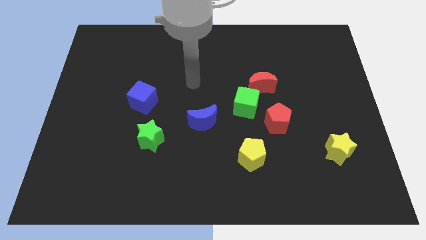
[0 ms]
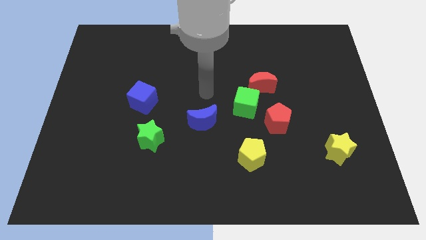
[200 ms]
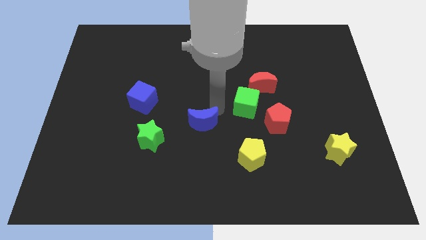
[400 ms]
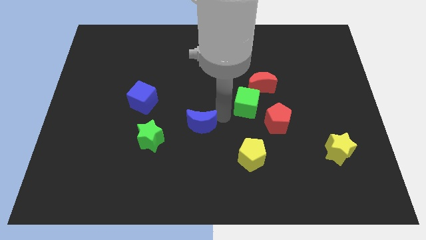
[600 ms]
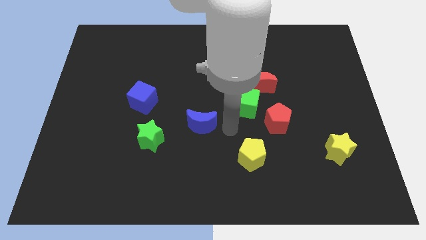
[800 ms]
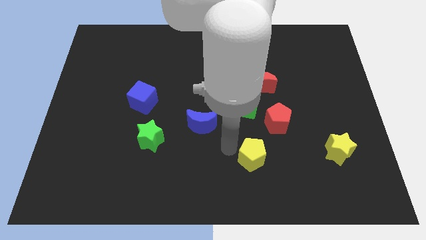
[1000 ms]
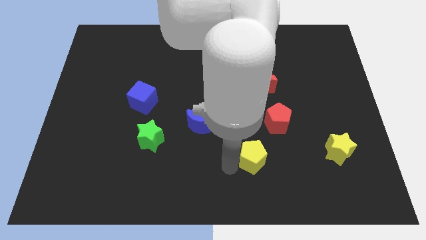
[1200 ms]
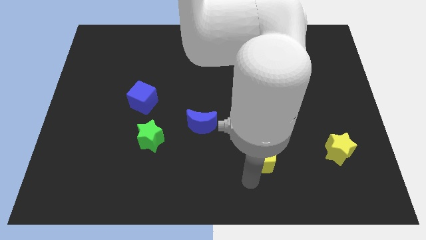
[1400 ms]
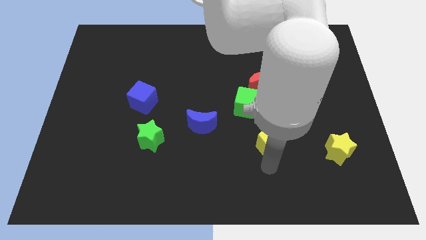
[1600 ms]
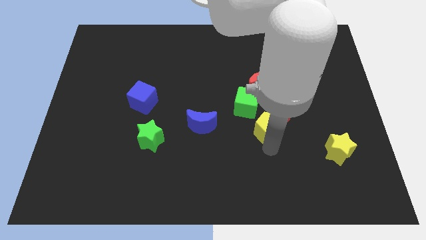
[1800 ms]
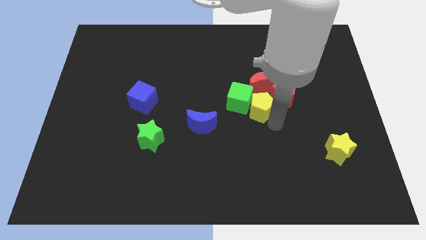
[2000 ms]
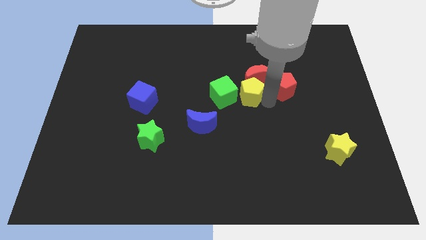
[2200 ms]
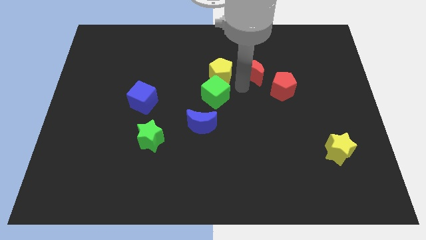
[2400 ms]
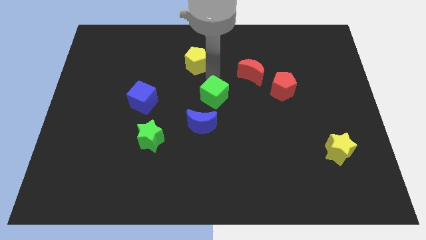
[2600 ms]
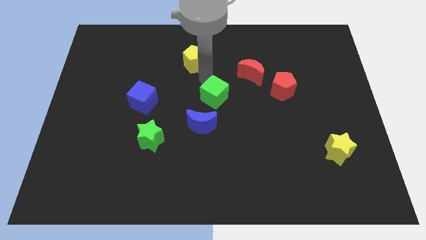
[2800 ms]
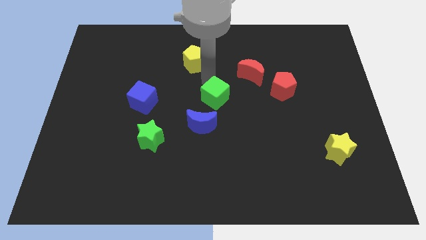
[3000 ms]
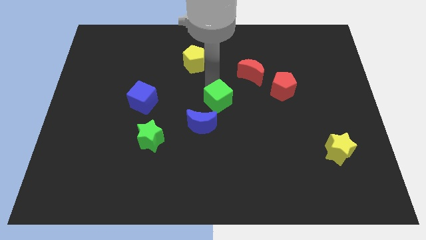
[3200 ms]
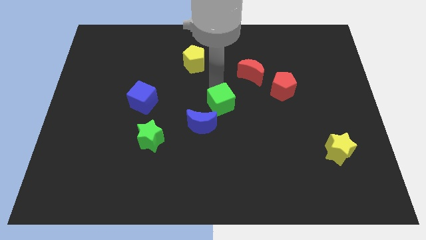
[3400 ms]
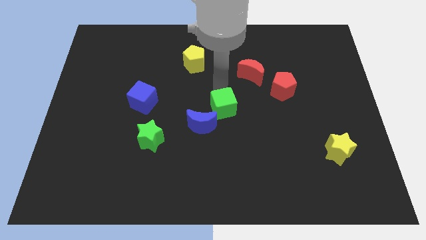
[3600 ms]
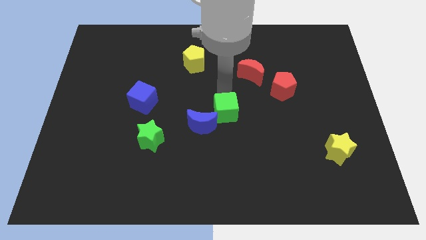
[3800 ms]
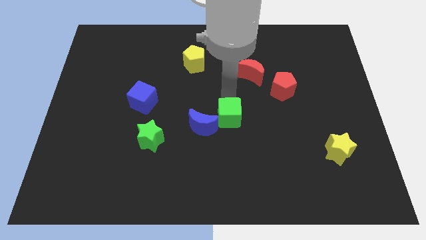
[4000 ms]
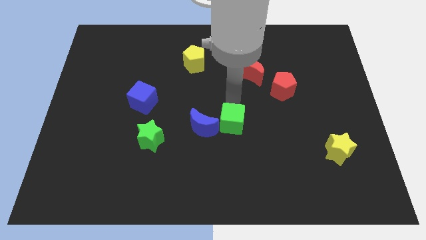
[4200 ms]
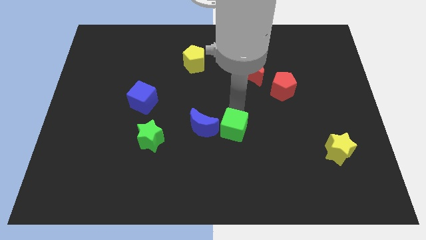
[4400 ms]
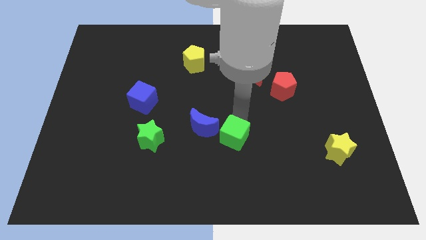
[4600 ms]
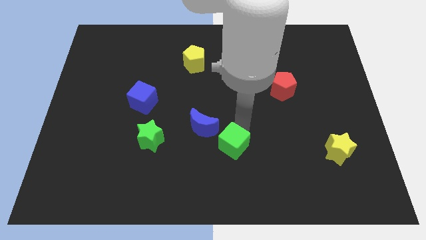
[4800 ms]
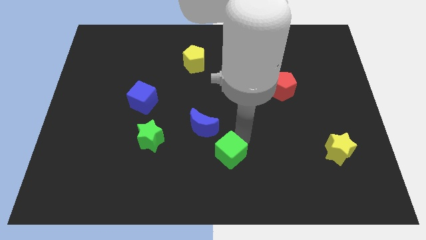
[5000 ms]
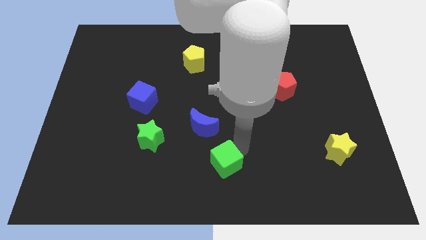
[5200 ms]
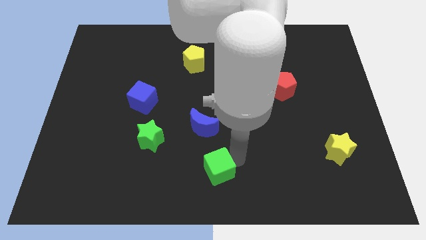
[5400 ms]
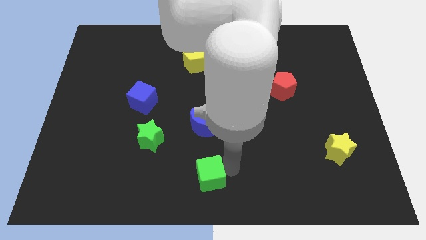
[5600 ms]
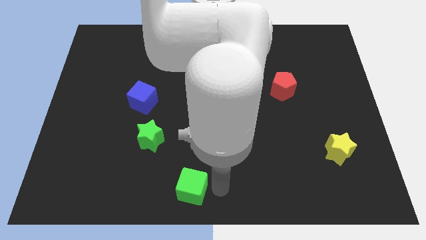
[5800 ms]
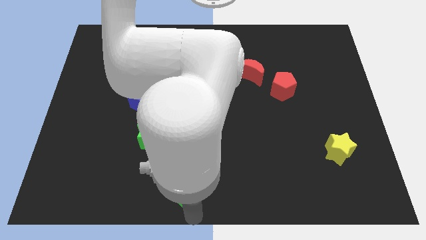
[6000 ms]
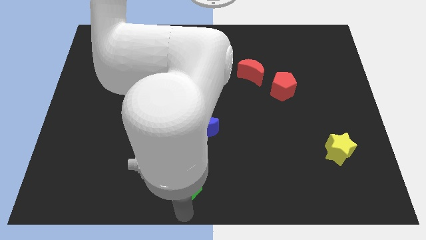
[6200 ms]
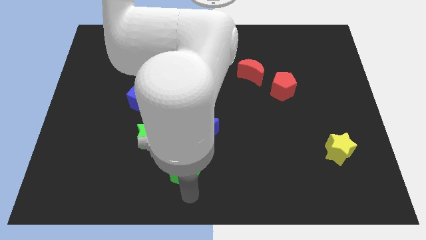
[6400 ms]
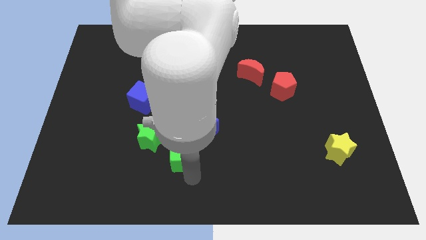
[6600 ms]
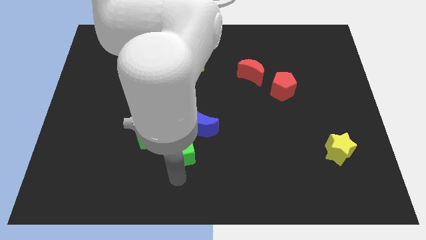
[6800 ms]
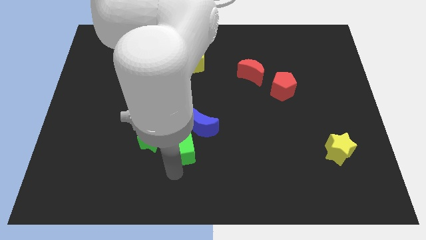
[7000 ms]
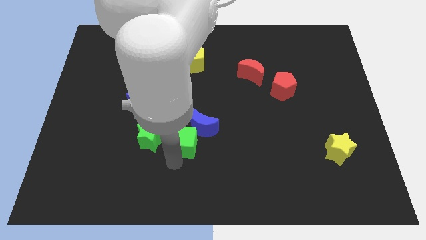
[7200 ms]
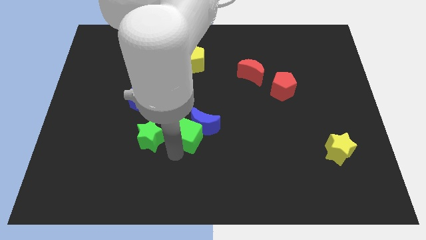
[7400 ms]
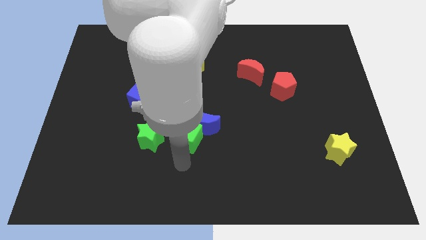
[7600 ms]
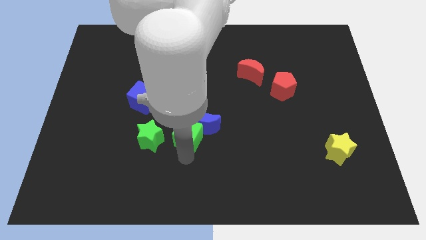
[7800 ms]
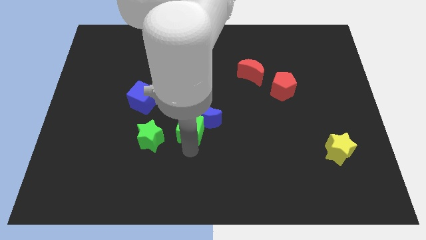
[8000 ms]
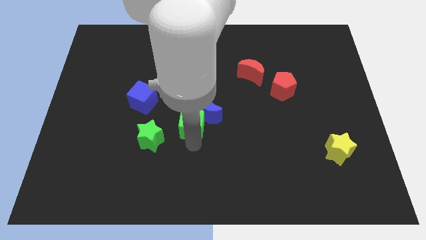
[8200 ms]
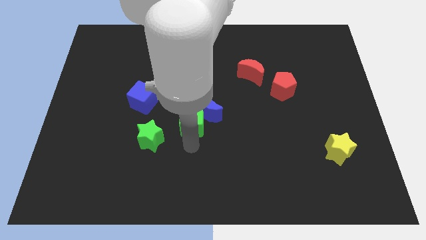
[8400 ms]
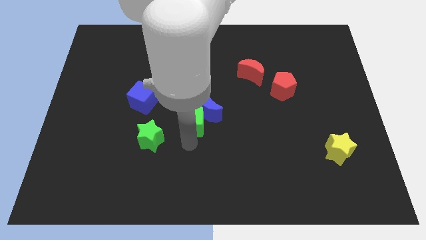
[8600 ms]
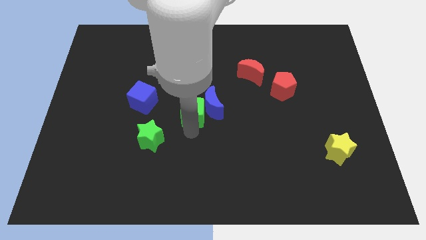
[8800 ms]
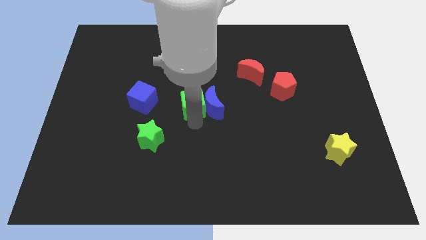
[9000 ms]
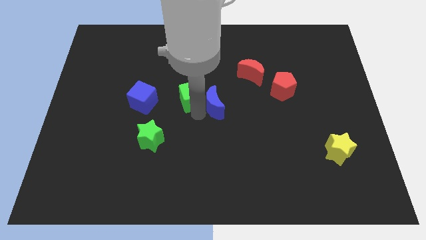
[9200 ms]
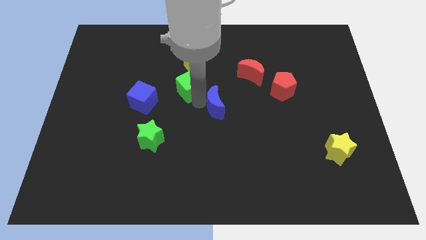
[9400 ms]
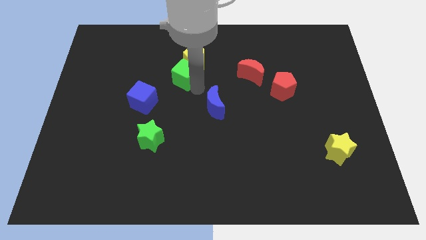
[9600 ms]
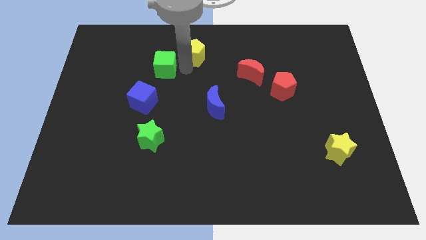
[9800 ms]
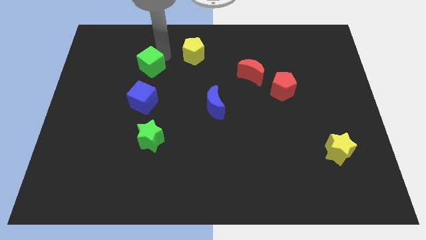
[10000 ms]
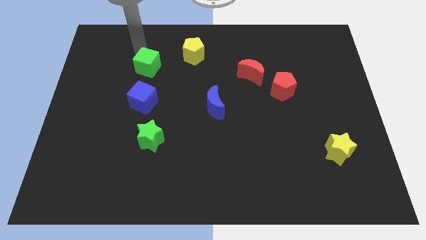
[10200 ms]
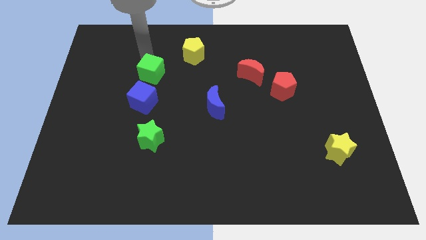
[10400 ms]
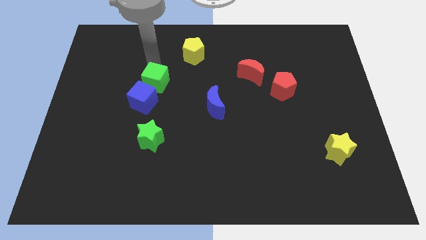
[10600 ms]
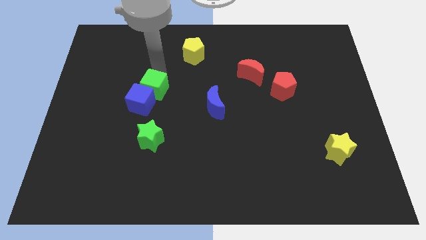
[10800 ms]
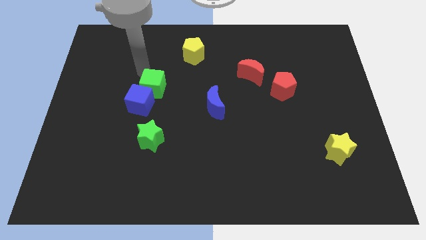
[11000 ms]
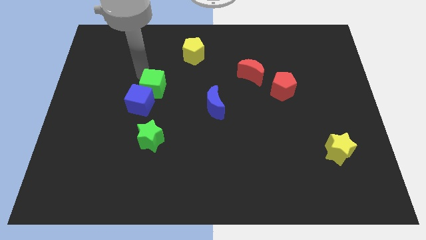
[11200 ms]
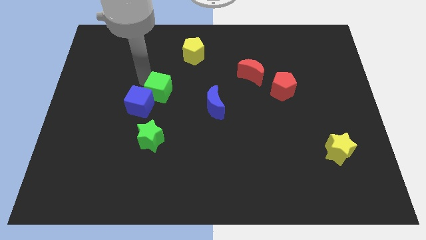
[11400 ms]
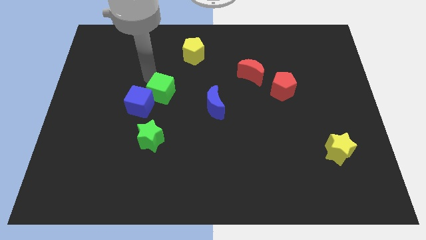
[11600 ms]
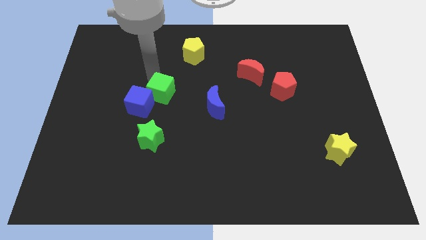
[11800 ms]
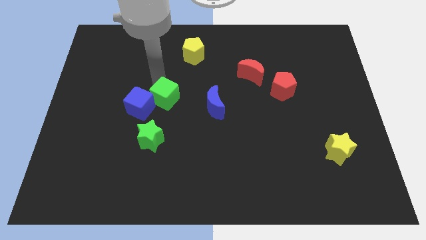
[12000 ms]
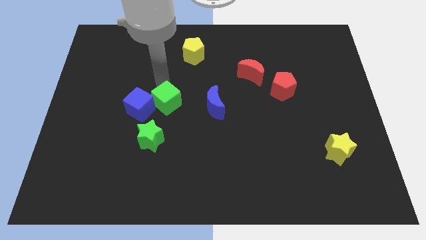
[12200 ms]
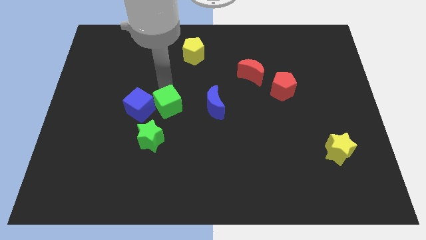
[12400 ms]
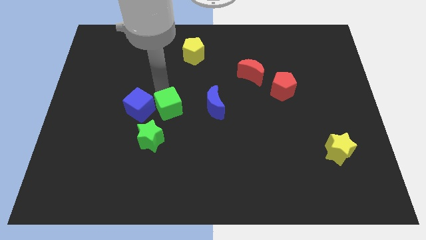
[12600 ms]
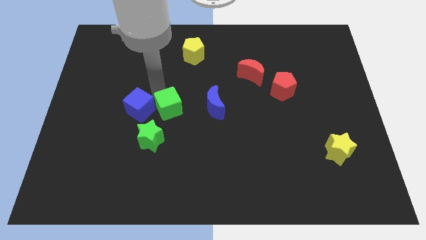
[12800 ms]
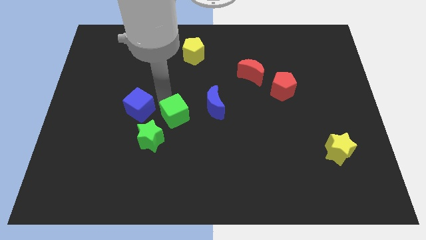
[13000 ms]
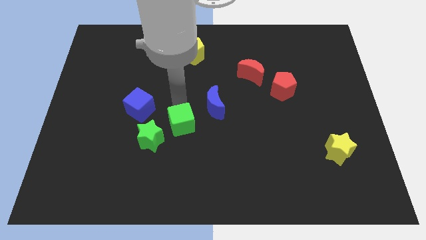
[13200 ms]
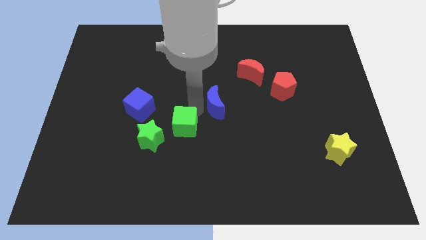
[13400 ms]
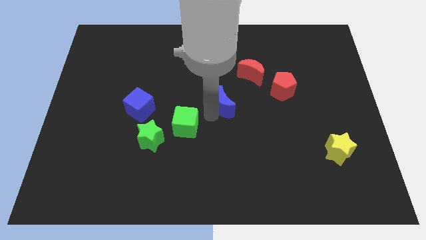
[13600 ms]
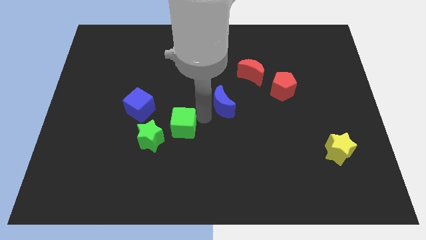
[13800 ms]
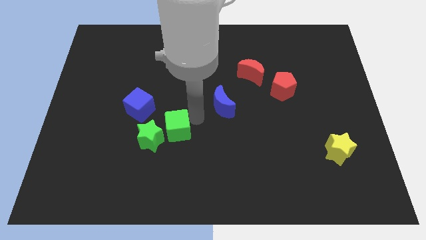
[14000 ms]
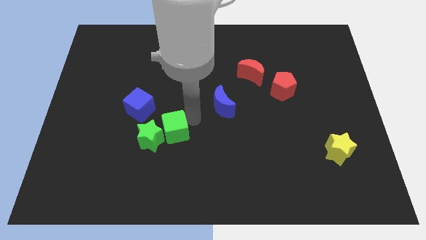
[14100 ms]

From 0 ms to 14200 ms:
push the green cube towards the green star

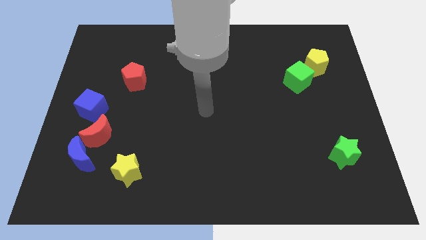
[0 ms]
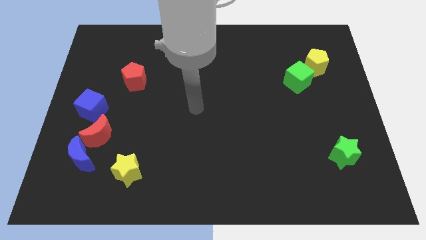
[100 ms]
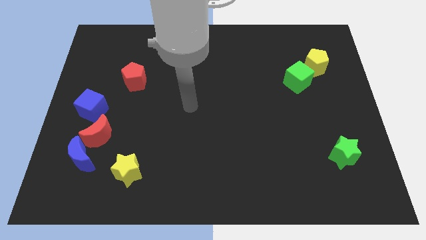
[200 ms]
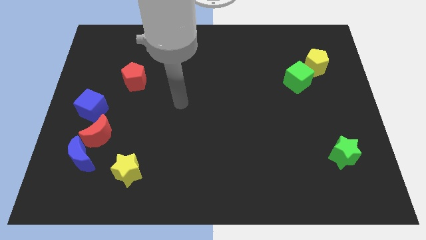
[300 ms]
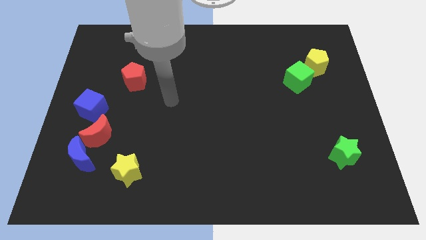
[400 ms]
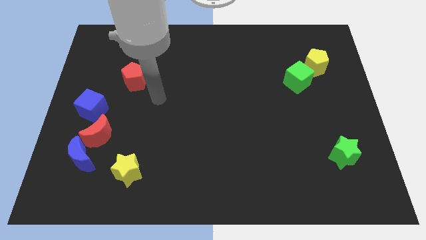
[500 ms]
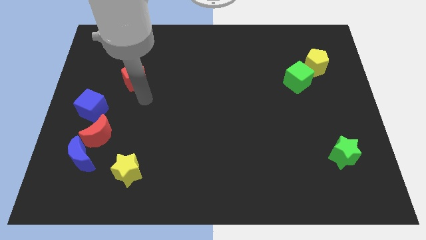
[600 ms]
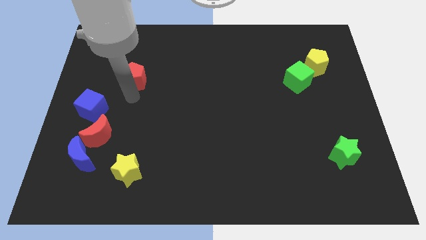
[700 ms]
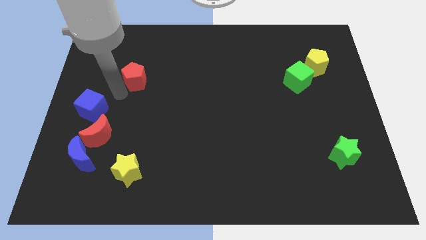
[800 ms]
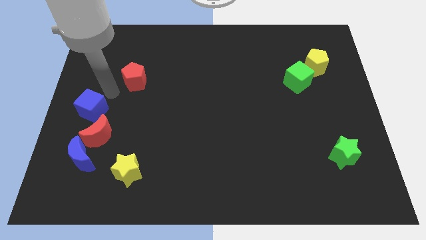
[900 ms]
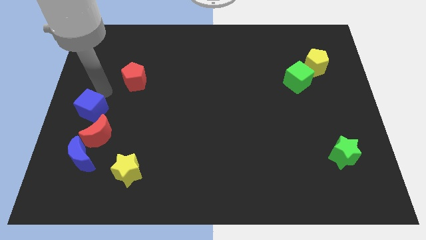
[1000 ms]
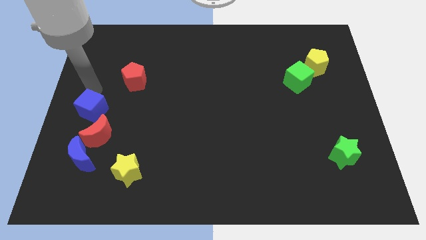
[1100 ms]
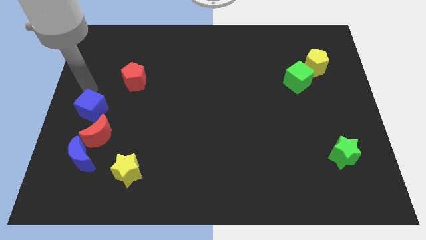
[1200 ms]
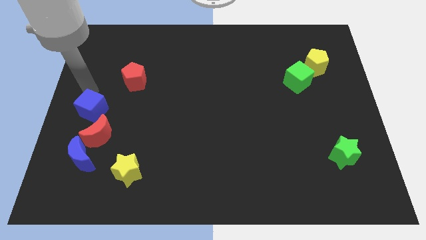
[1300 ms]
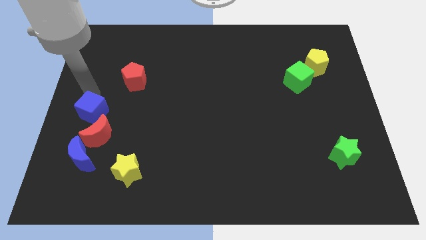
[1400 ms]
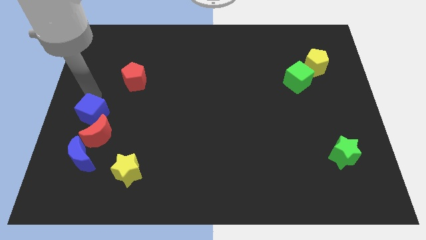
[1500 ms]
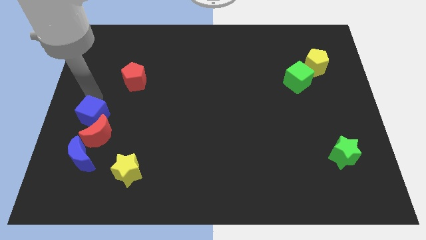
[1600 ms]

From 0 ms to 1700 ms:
move the blue cube next to the red moon
